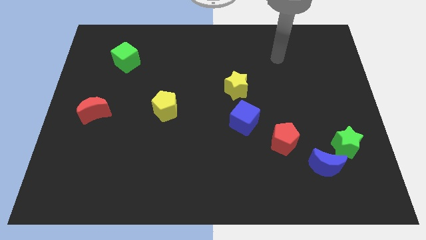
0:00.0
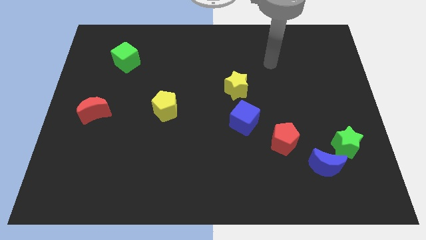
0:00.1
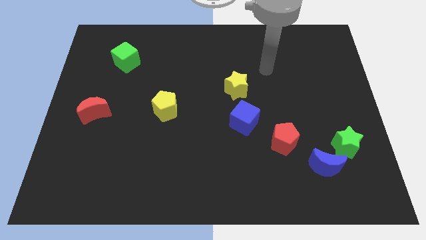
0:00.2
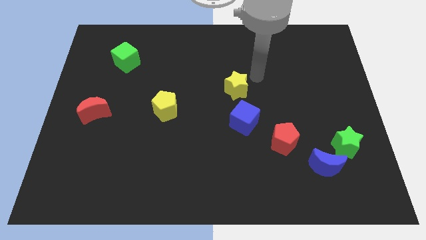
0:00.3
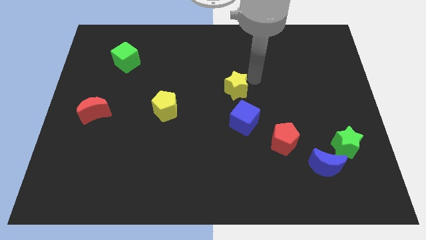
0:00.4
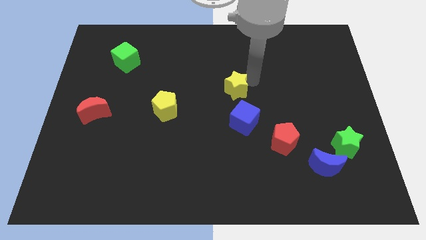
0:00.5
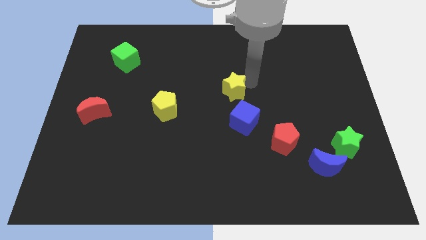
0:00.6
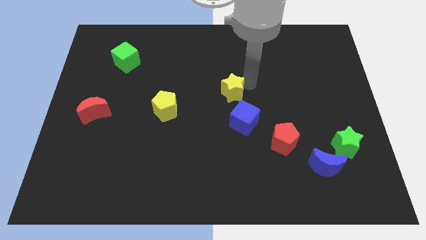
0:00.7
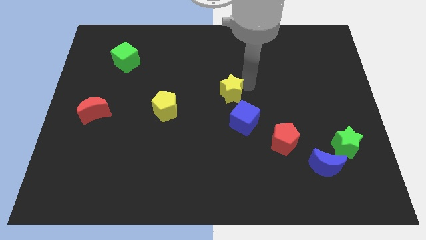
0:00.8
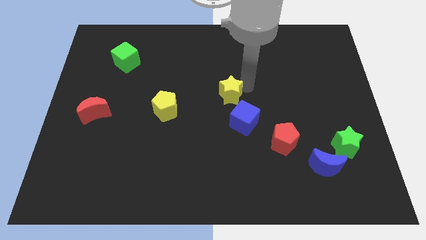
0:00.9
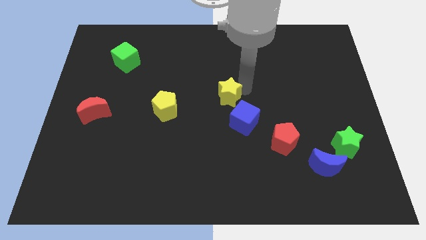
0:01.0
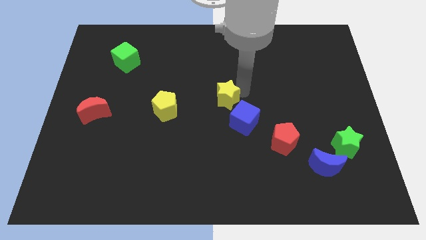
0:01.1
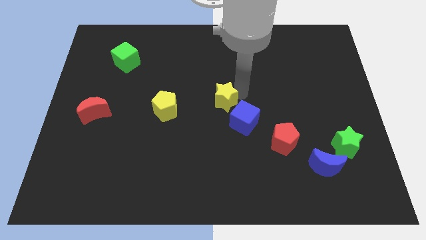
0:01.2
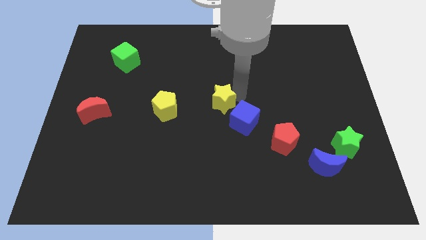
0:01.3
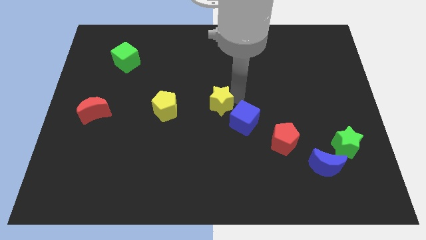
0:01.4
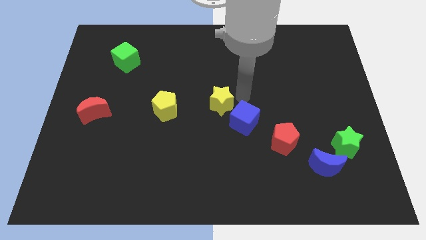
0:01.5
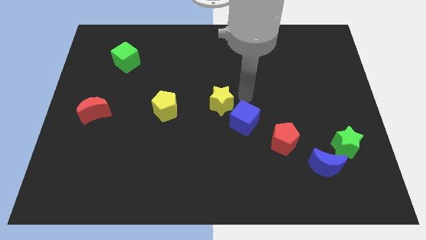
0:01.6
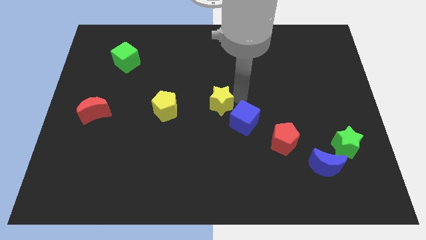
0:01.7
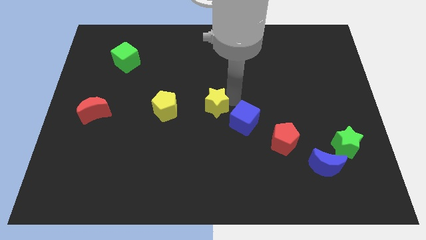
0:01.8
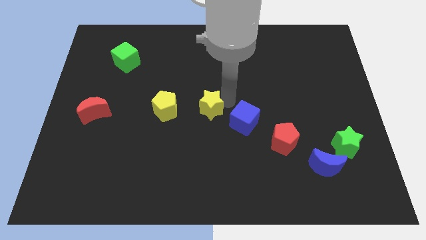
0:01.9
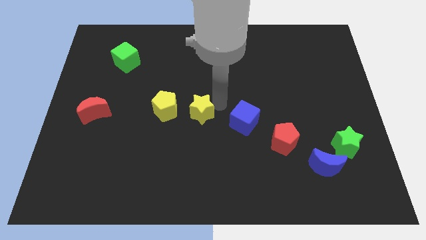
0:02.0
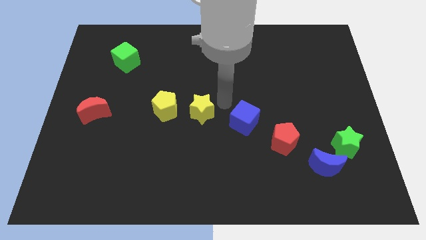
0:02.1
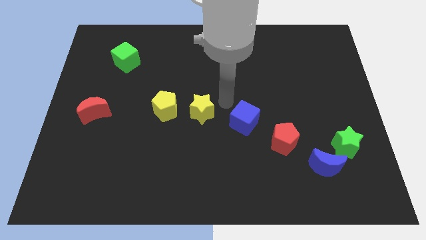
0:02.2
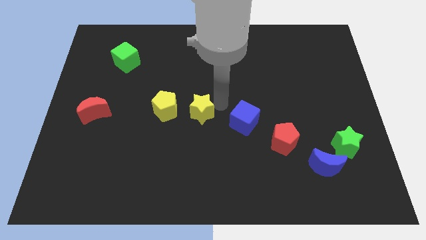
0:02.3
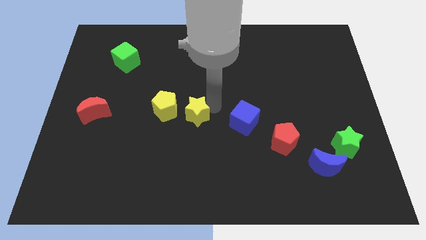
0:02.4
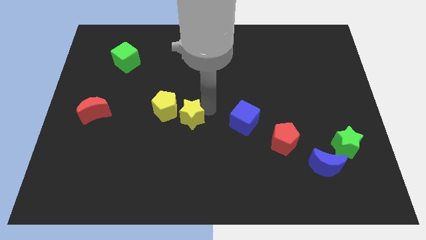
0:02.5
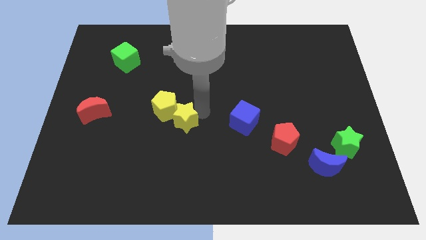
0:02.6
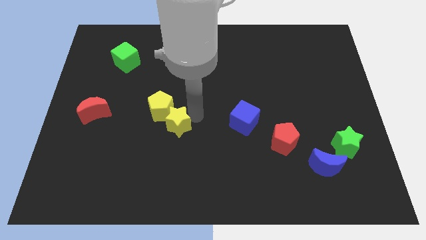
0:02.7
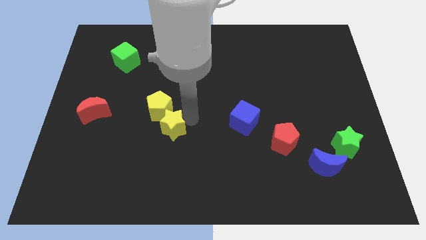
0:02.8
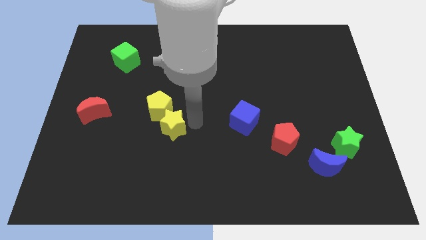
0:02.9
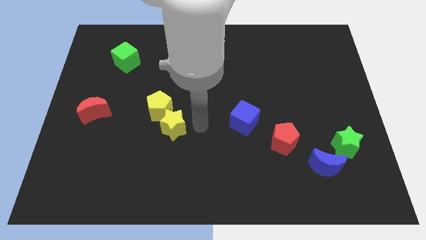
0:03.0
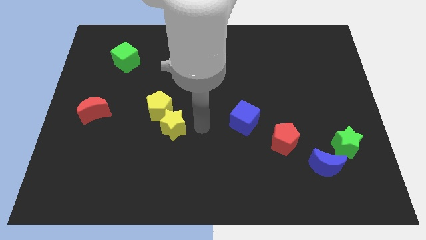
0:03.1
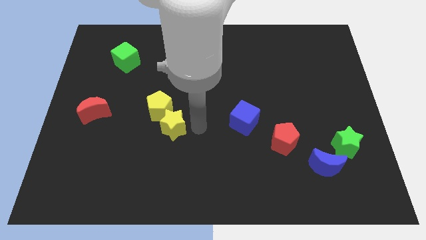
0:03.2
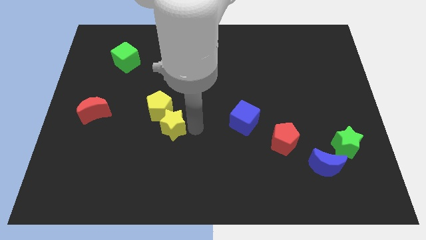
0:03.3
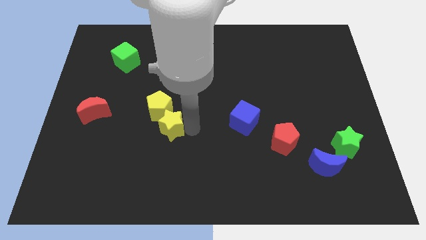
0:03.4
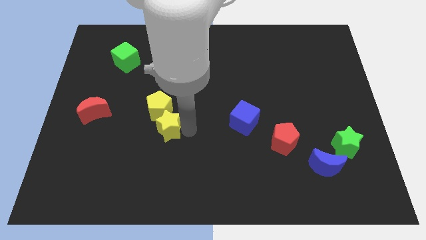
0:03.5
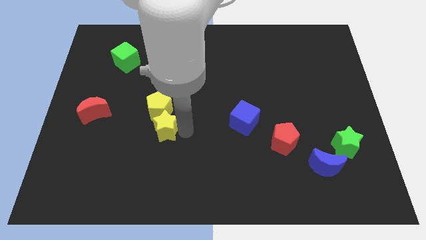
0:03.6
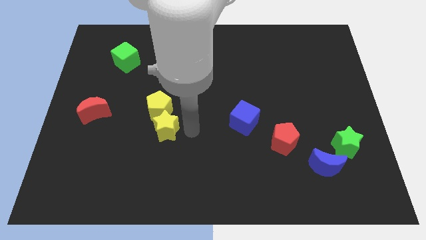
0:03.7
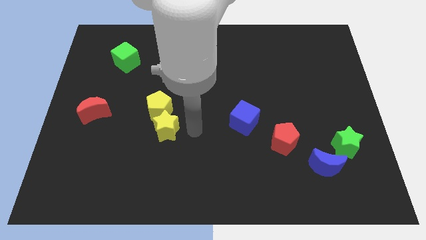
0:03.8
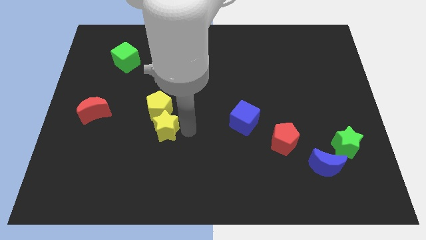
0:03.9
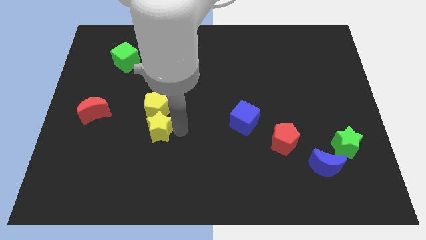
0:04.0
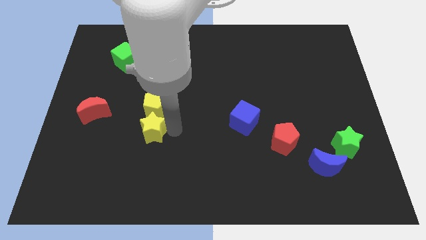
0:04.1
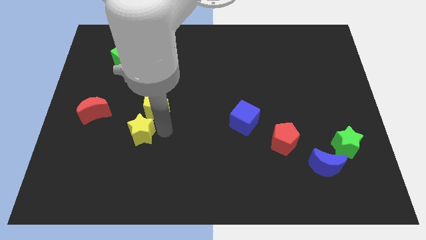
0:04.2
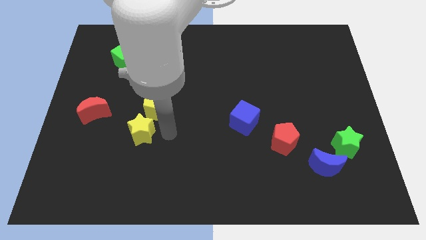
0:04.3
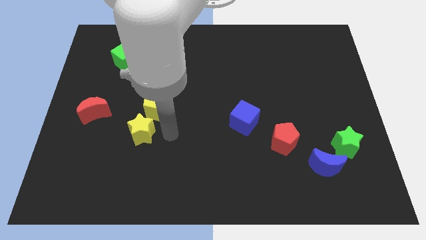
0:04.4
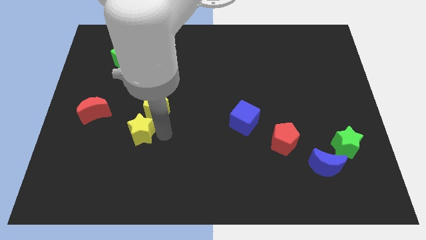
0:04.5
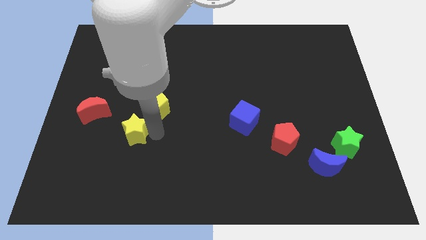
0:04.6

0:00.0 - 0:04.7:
slide the yellow star to the bottom right of the red moon

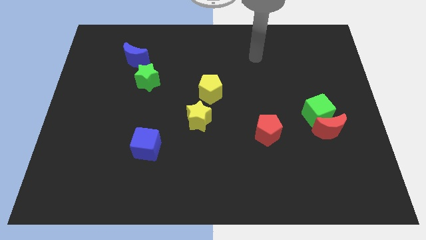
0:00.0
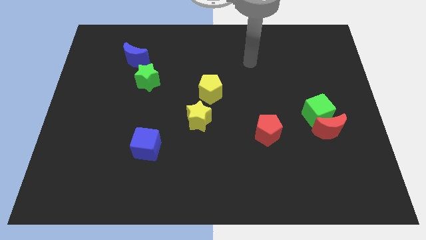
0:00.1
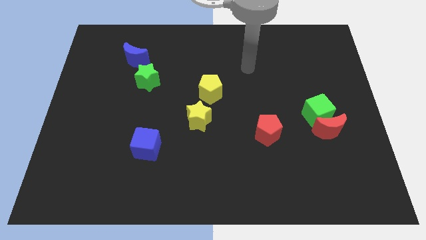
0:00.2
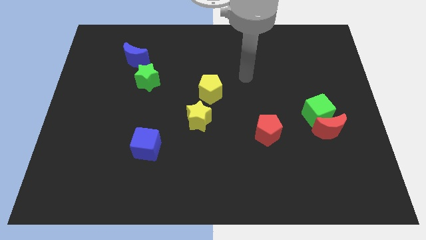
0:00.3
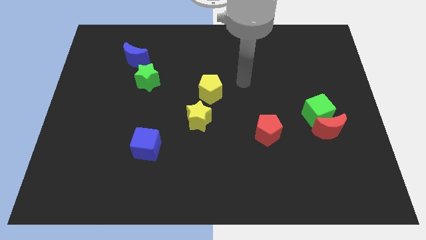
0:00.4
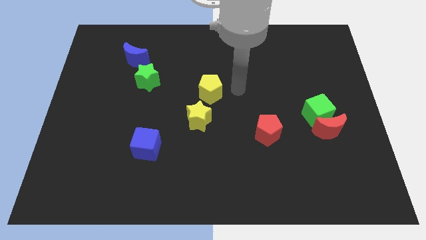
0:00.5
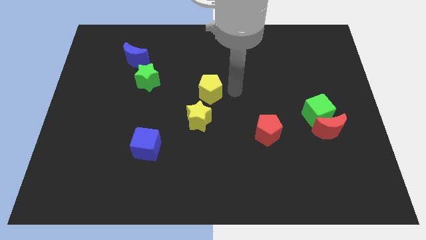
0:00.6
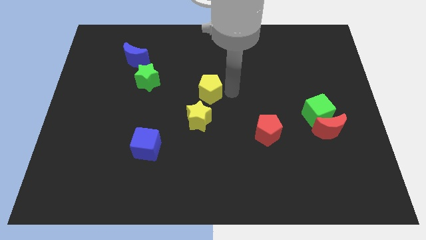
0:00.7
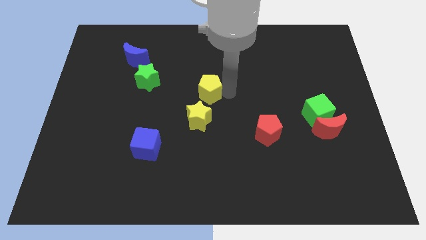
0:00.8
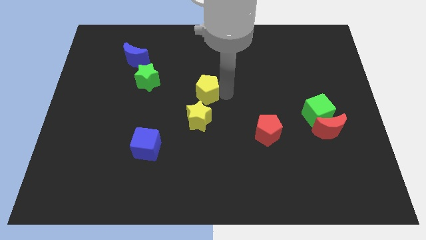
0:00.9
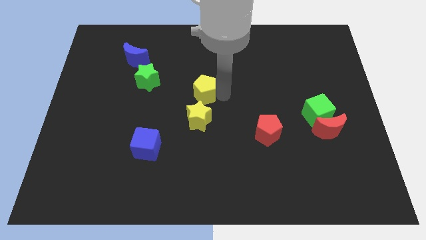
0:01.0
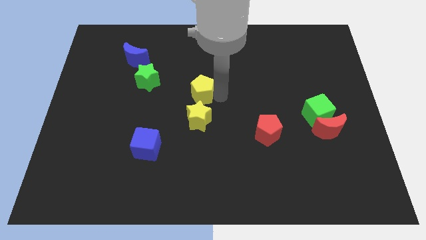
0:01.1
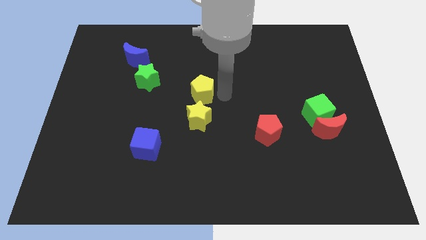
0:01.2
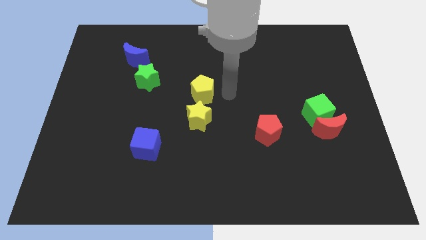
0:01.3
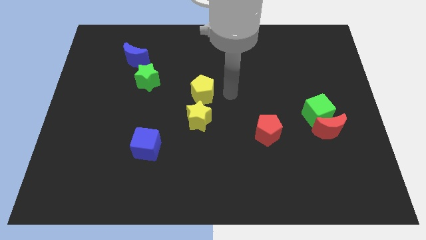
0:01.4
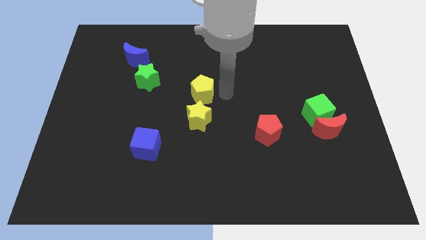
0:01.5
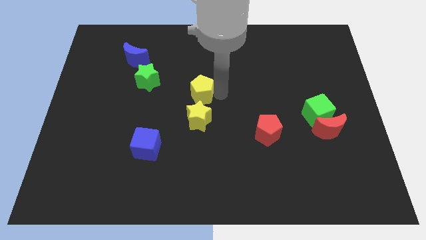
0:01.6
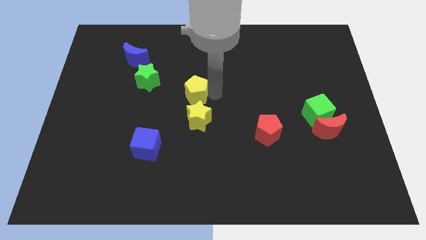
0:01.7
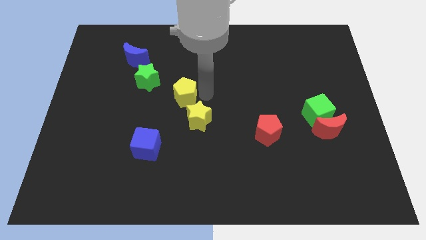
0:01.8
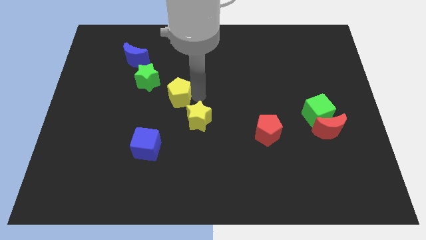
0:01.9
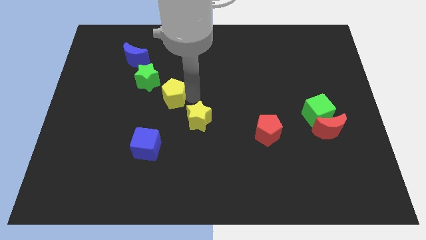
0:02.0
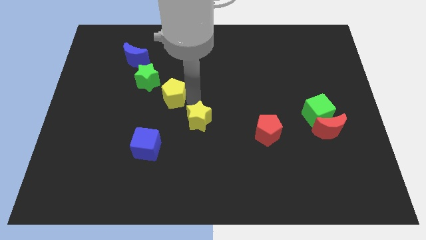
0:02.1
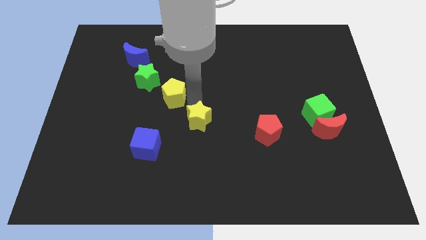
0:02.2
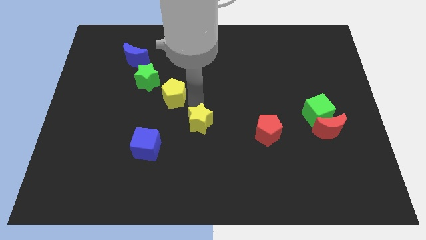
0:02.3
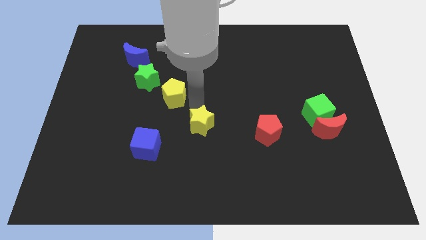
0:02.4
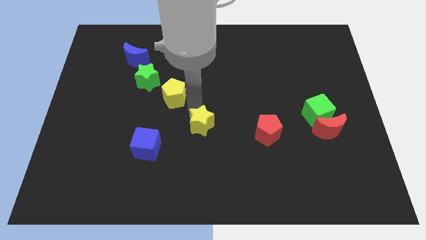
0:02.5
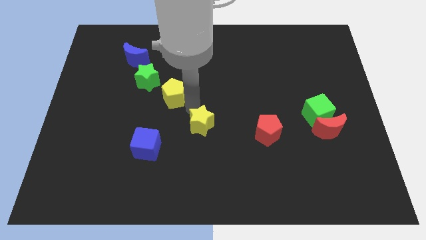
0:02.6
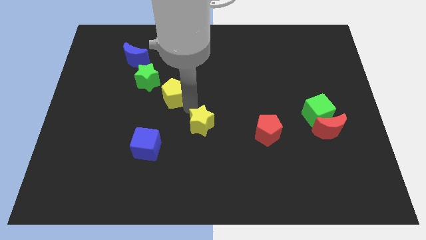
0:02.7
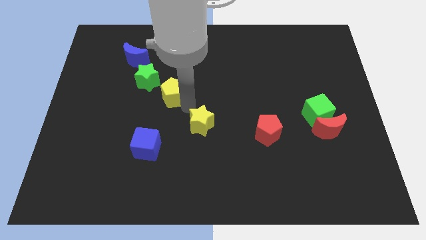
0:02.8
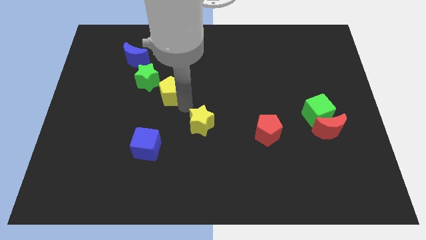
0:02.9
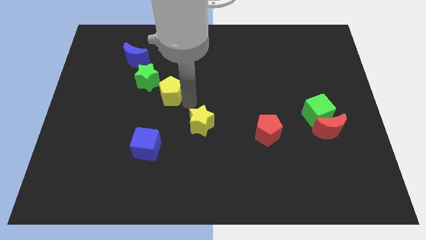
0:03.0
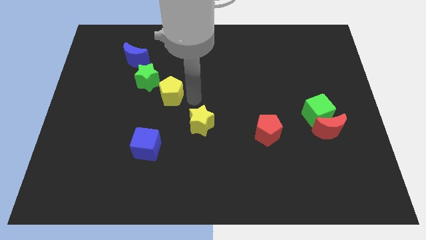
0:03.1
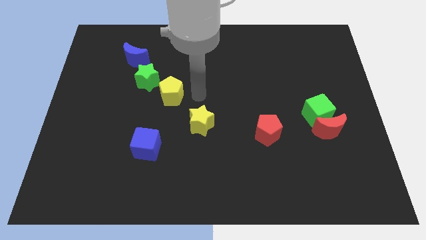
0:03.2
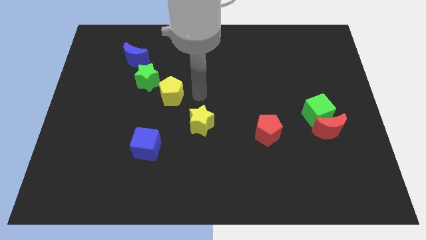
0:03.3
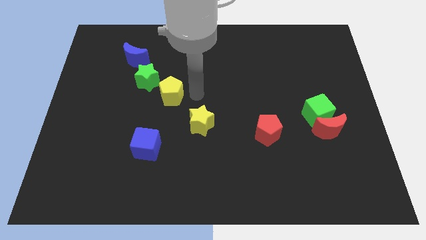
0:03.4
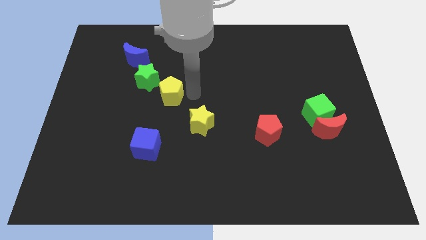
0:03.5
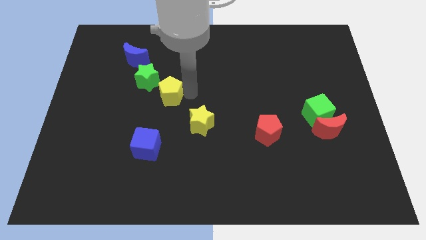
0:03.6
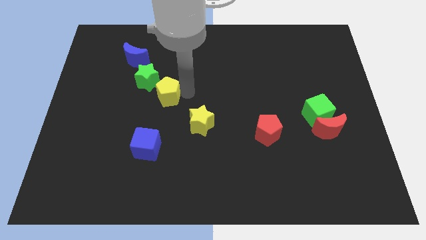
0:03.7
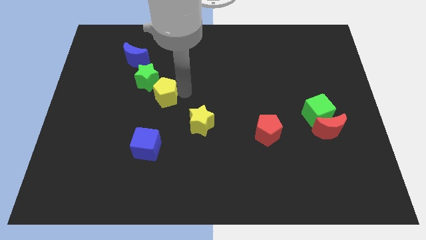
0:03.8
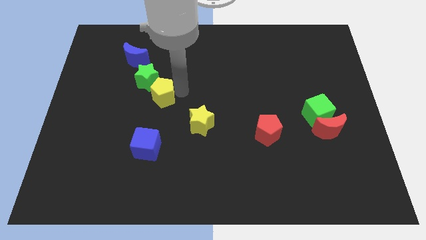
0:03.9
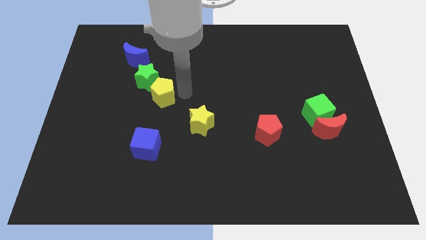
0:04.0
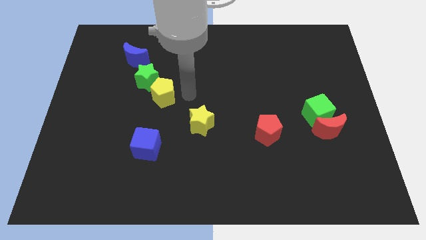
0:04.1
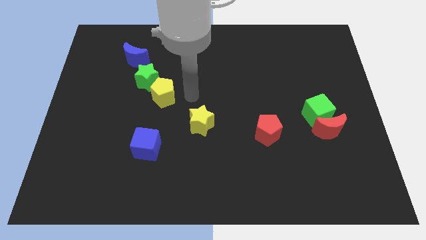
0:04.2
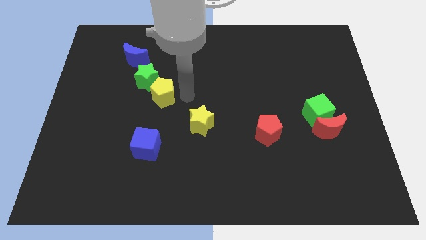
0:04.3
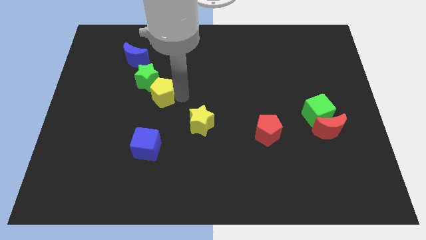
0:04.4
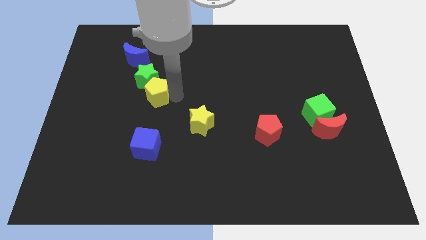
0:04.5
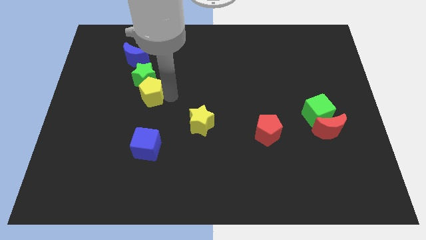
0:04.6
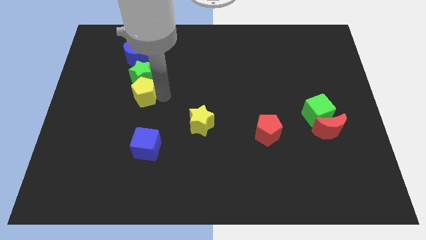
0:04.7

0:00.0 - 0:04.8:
move the yellow pentagon to the bottom left side of the green star
